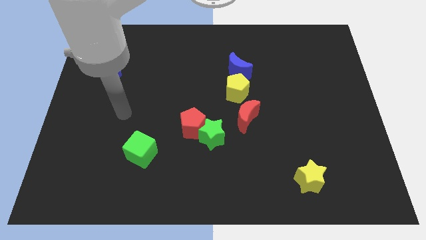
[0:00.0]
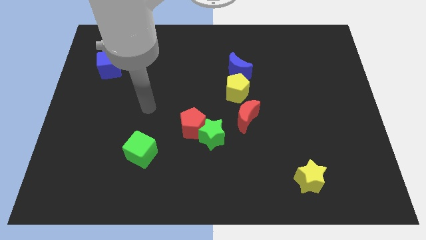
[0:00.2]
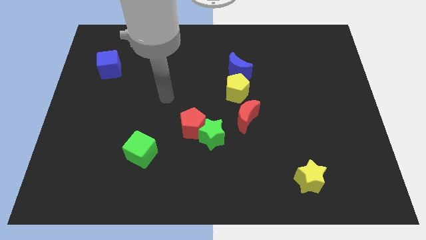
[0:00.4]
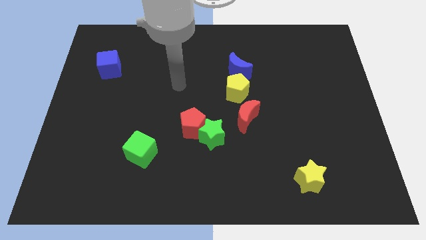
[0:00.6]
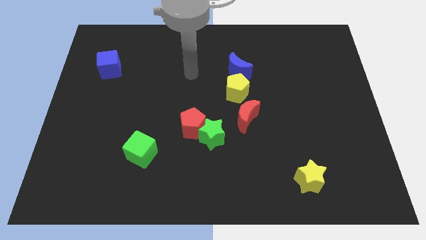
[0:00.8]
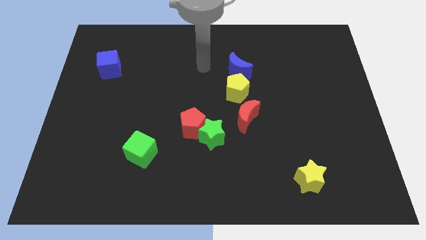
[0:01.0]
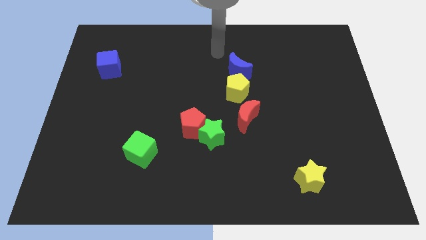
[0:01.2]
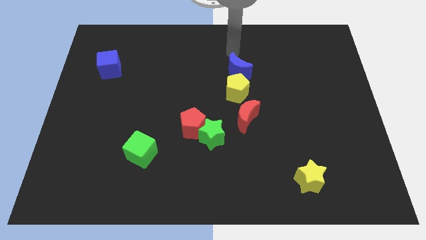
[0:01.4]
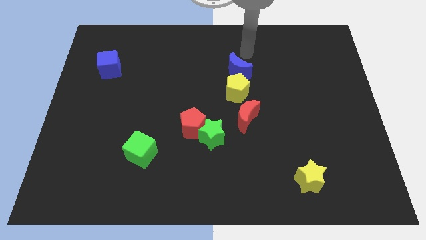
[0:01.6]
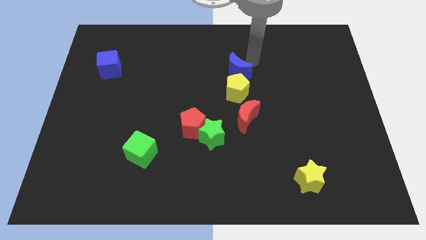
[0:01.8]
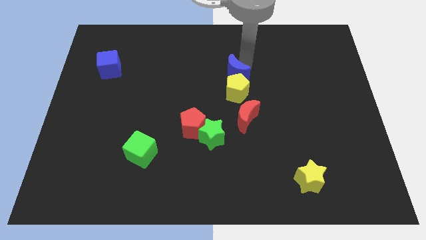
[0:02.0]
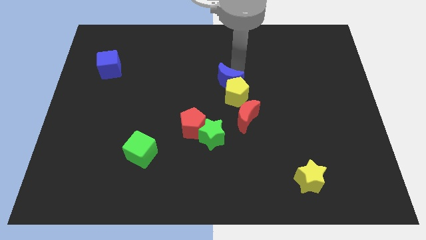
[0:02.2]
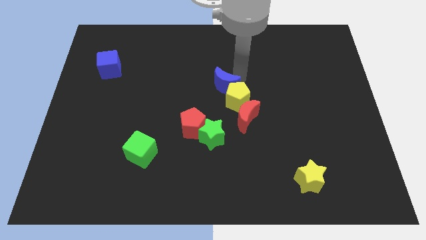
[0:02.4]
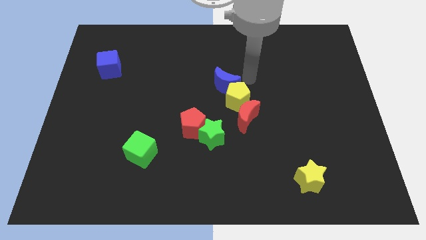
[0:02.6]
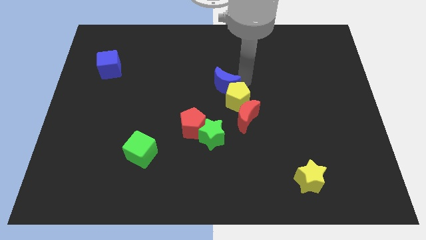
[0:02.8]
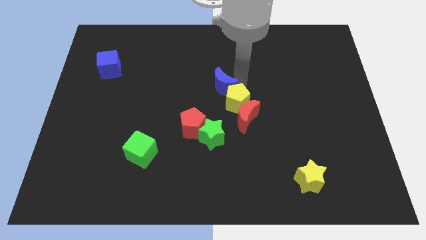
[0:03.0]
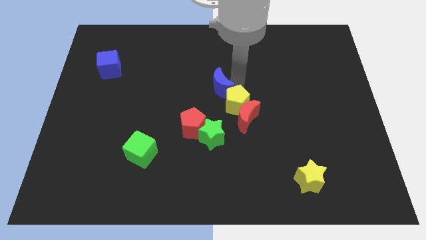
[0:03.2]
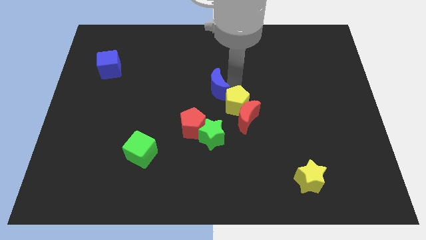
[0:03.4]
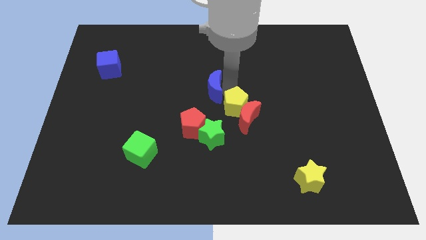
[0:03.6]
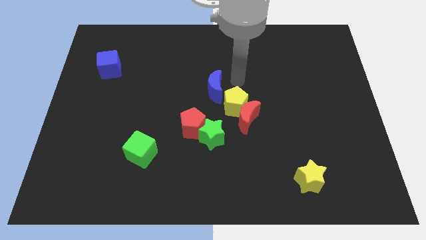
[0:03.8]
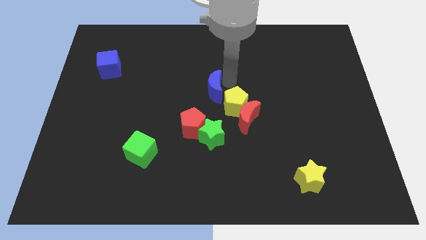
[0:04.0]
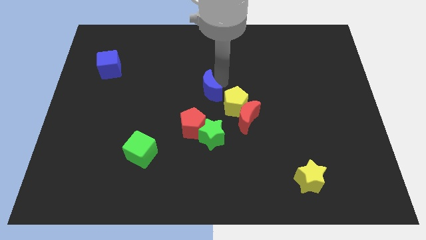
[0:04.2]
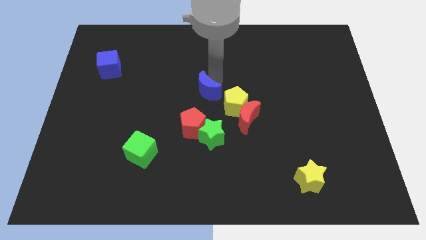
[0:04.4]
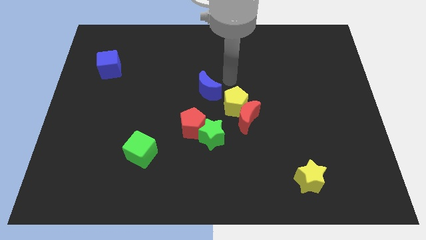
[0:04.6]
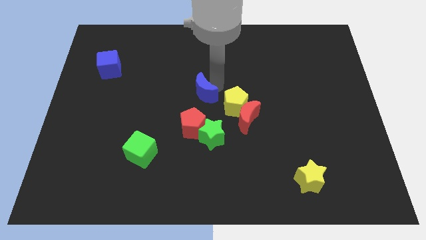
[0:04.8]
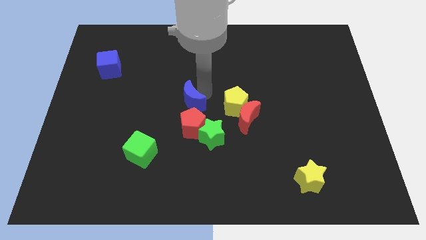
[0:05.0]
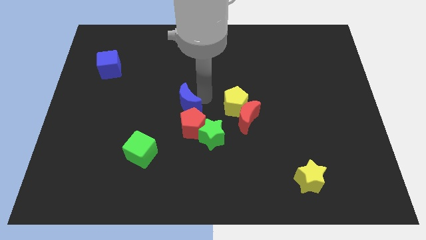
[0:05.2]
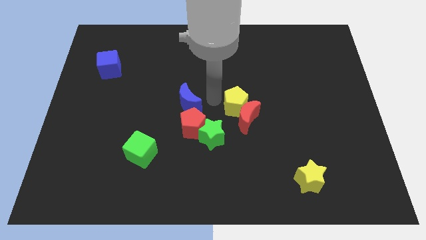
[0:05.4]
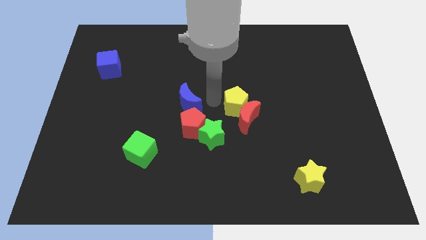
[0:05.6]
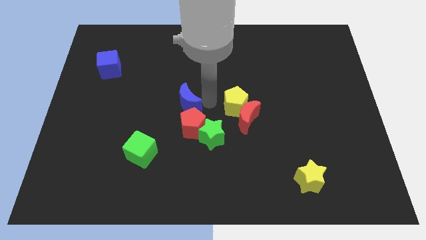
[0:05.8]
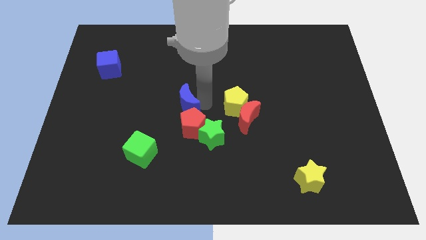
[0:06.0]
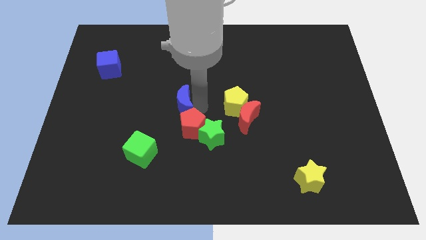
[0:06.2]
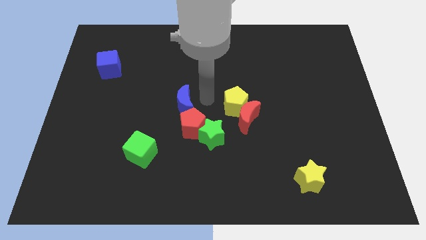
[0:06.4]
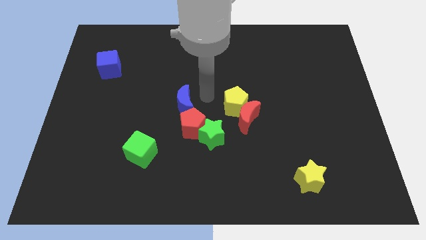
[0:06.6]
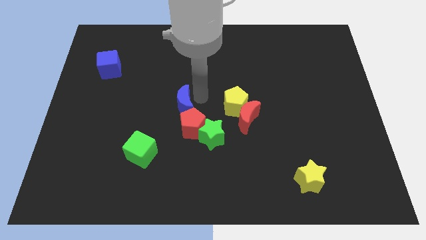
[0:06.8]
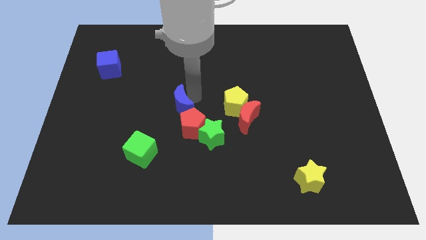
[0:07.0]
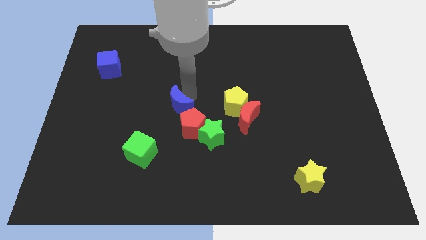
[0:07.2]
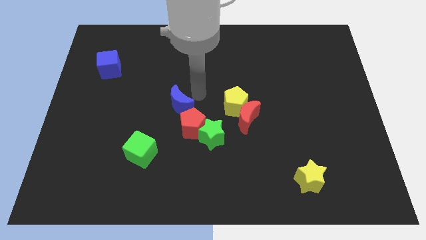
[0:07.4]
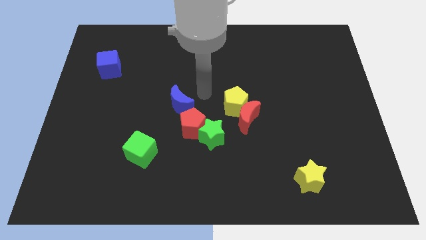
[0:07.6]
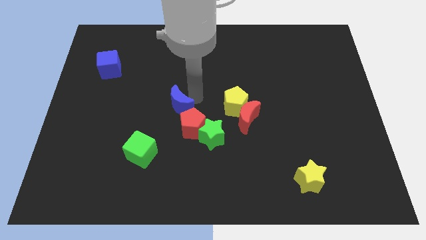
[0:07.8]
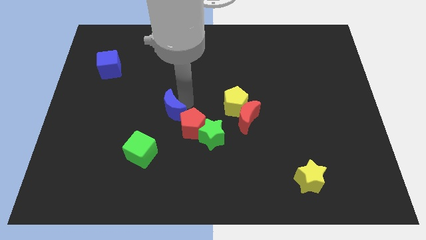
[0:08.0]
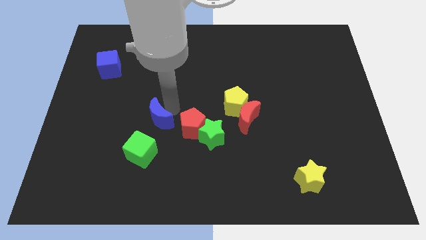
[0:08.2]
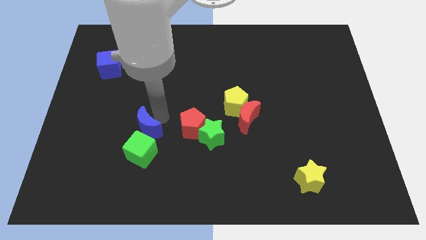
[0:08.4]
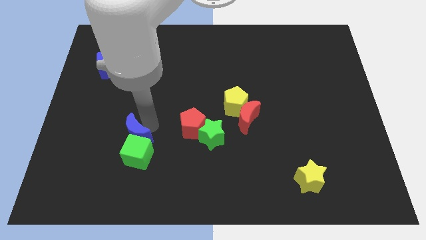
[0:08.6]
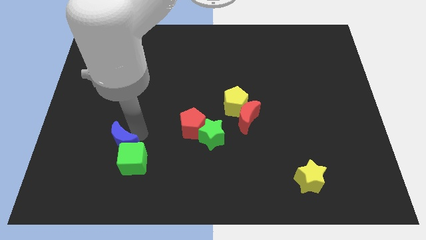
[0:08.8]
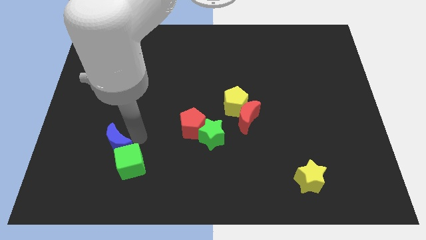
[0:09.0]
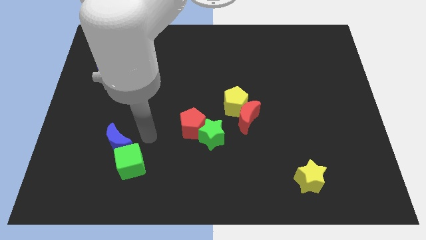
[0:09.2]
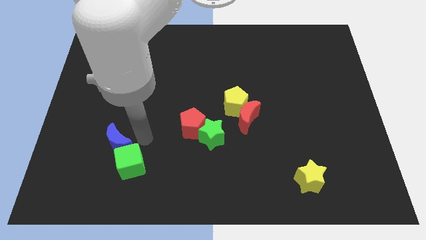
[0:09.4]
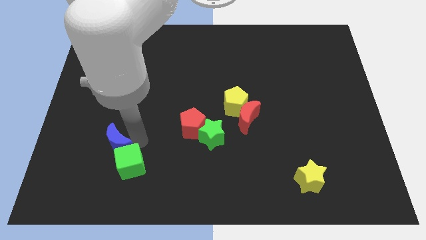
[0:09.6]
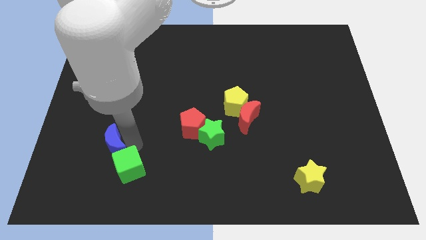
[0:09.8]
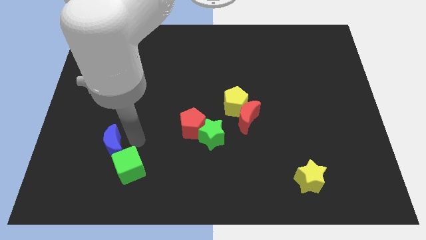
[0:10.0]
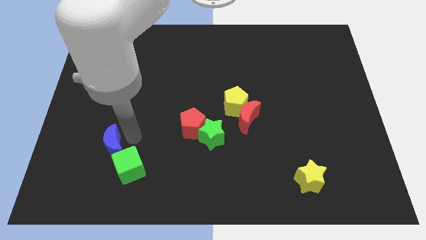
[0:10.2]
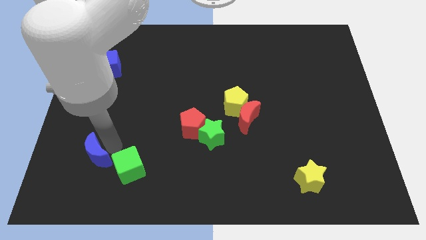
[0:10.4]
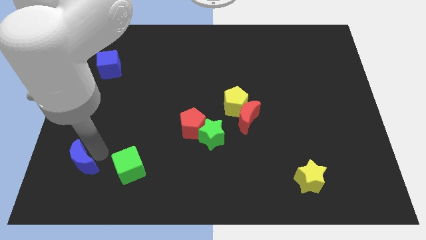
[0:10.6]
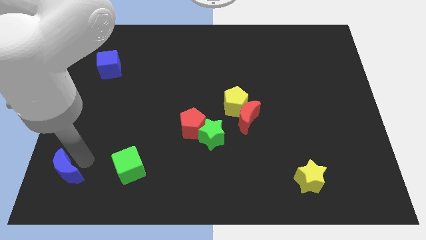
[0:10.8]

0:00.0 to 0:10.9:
move the blue moon to the bottom left corner
